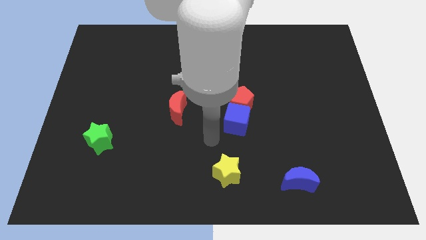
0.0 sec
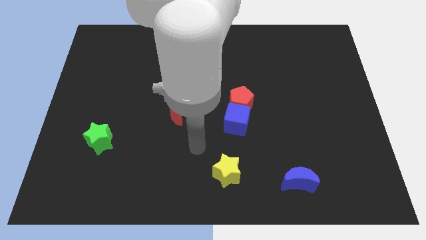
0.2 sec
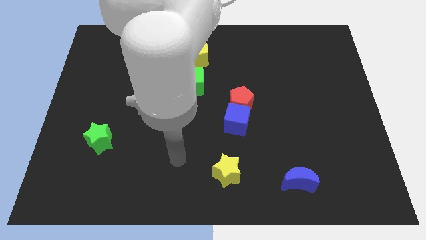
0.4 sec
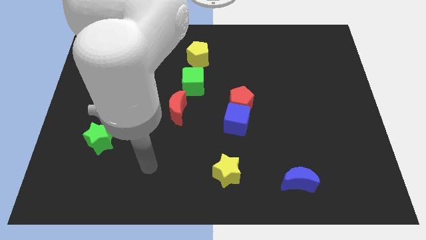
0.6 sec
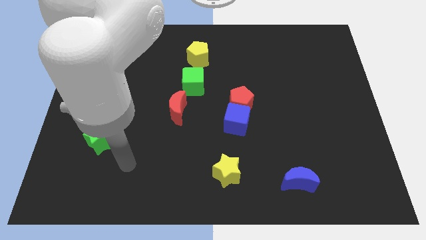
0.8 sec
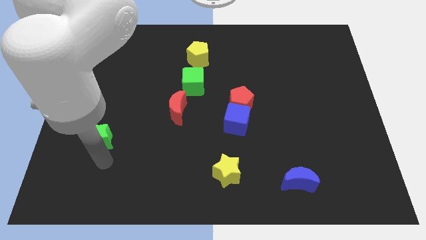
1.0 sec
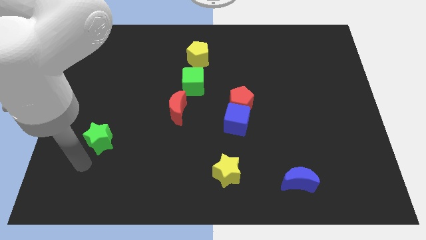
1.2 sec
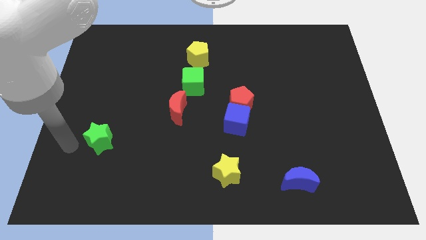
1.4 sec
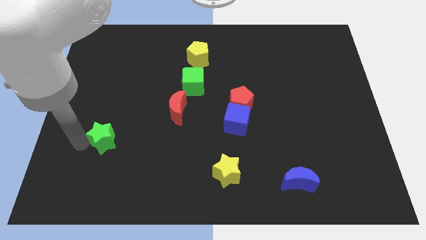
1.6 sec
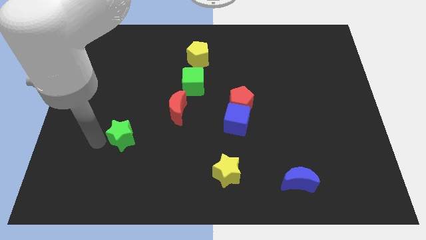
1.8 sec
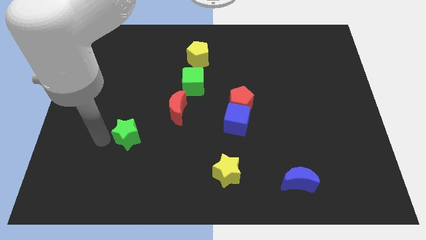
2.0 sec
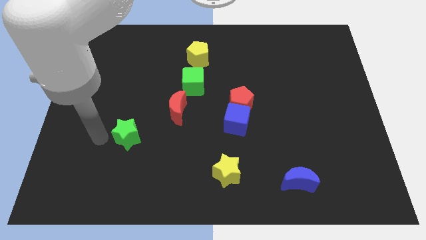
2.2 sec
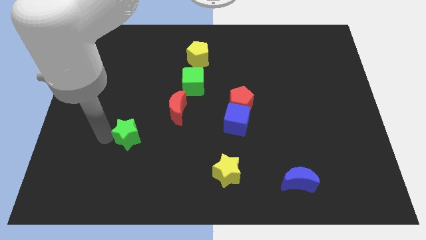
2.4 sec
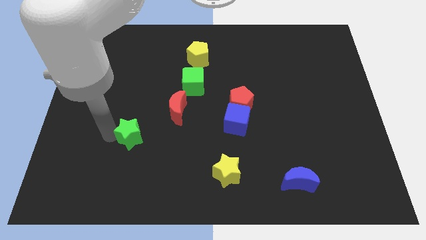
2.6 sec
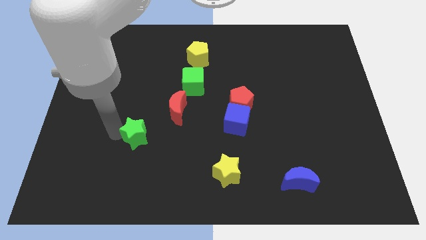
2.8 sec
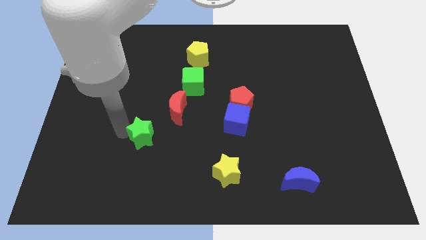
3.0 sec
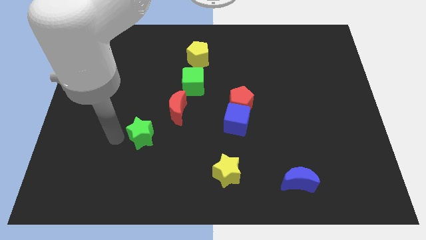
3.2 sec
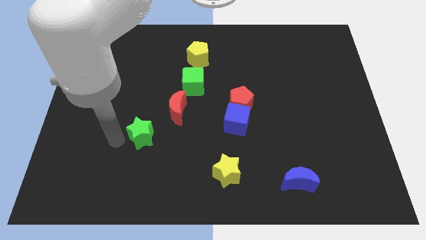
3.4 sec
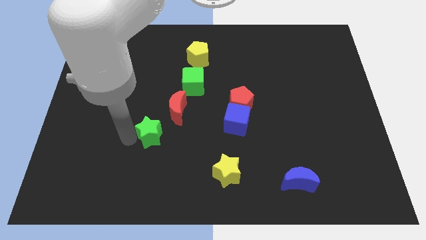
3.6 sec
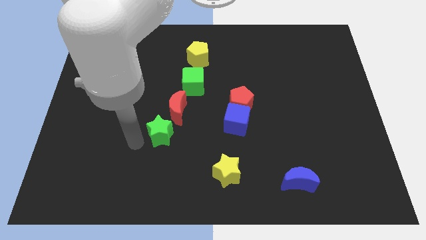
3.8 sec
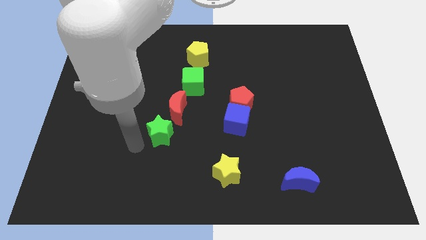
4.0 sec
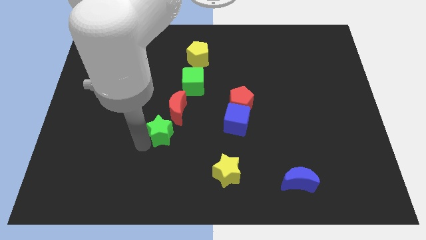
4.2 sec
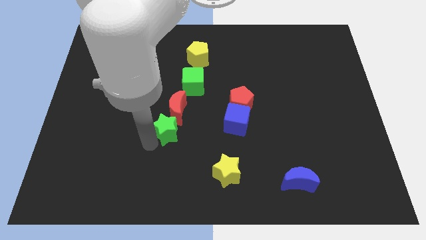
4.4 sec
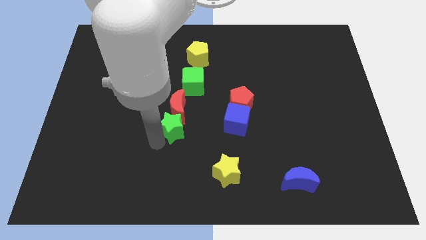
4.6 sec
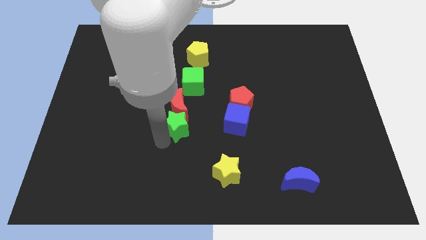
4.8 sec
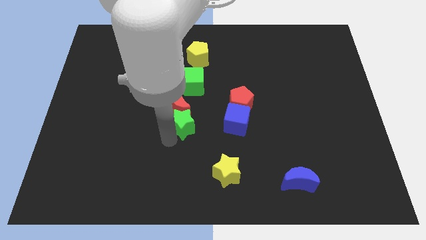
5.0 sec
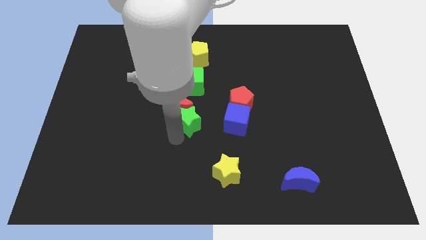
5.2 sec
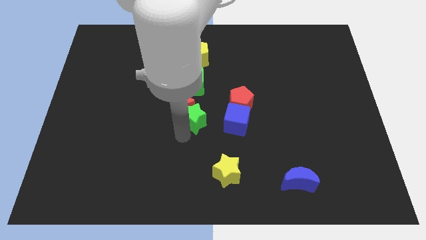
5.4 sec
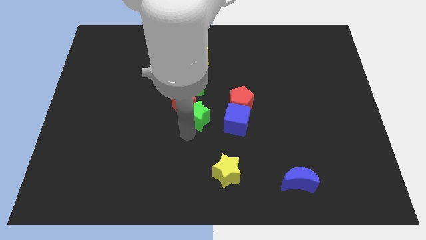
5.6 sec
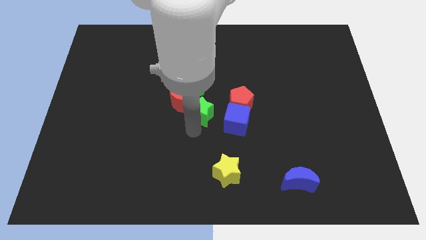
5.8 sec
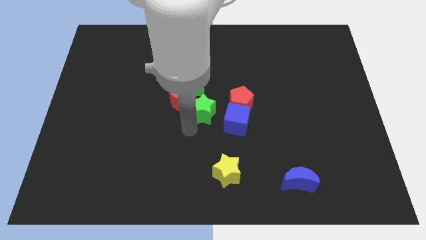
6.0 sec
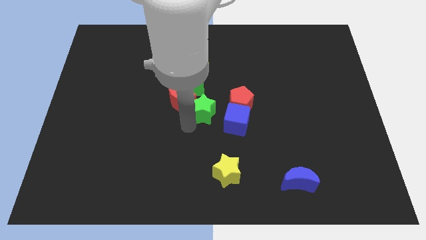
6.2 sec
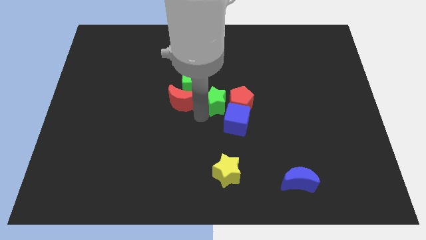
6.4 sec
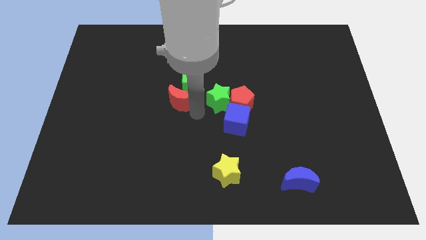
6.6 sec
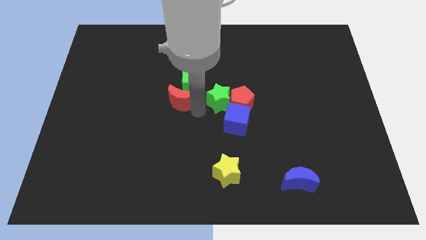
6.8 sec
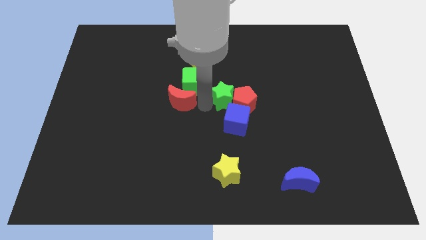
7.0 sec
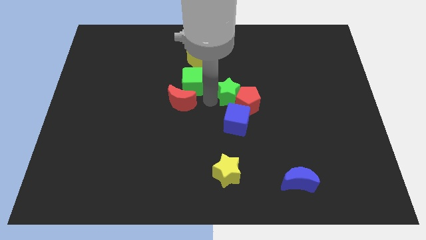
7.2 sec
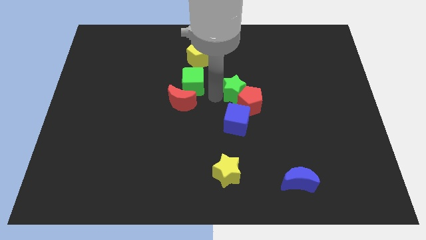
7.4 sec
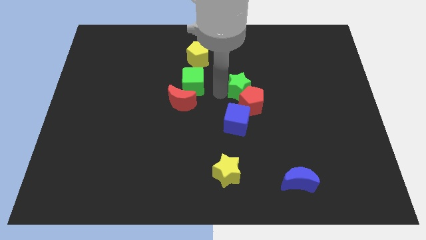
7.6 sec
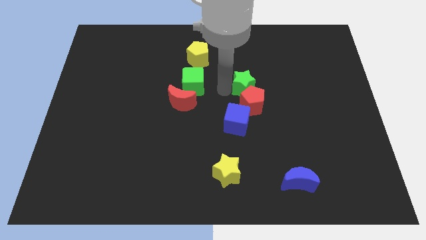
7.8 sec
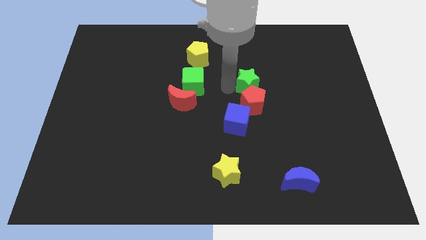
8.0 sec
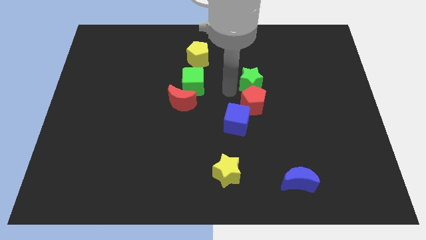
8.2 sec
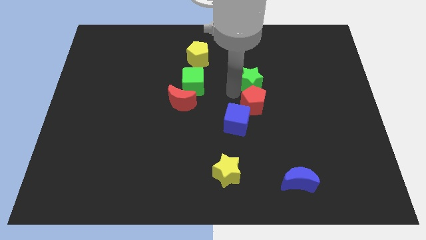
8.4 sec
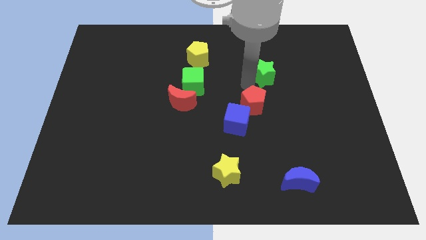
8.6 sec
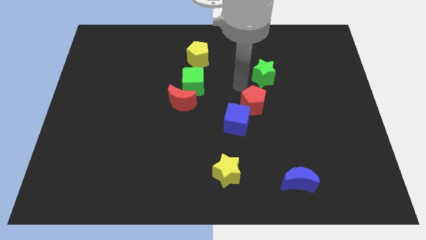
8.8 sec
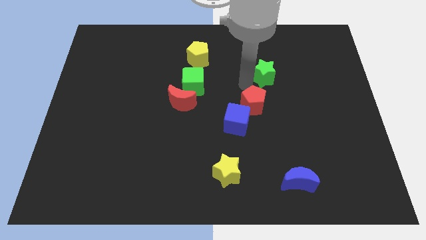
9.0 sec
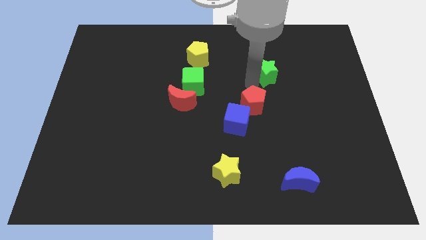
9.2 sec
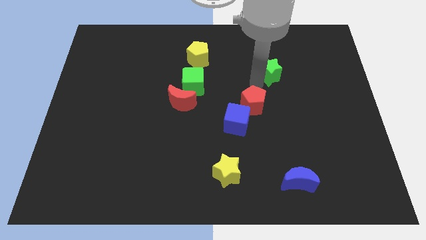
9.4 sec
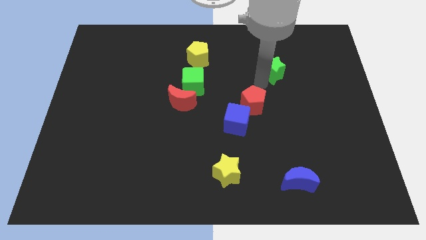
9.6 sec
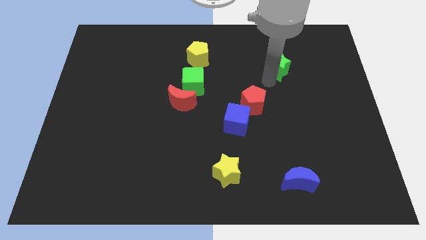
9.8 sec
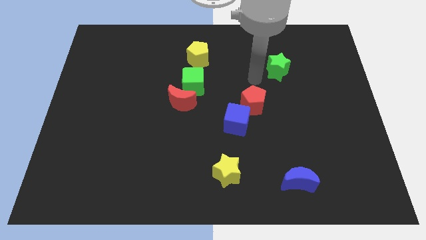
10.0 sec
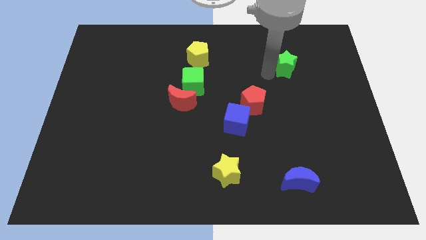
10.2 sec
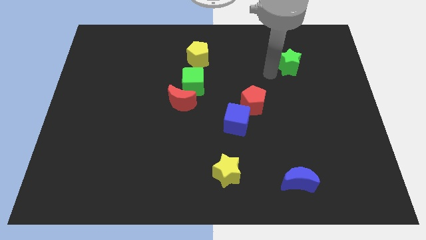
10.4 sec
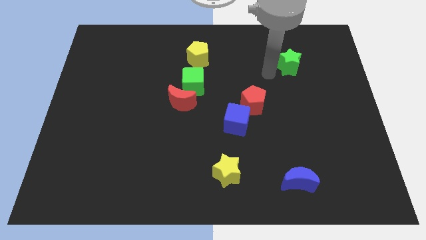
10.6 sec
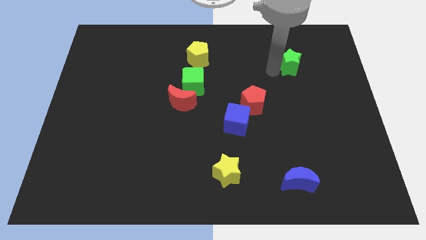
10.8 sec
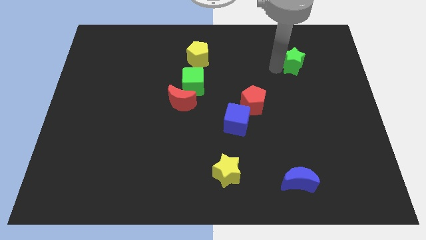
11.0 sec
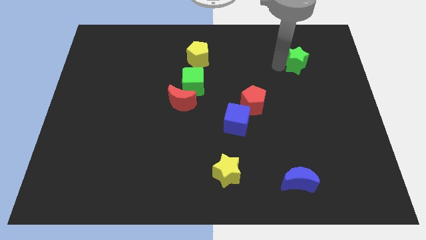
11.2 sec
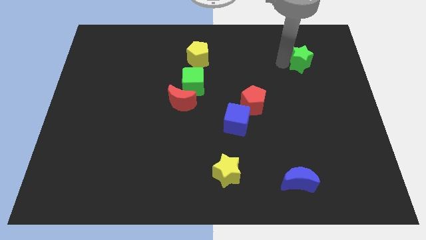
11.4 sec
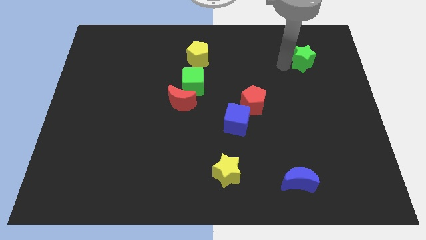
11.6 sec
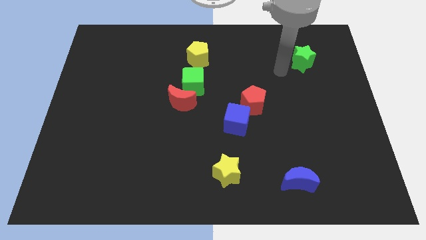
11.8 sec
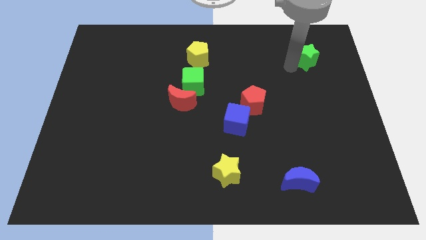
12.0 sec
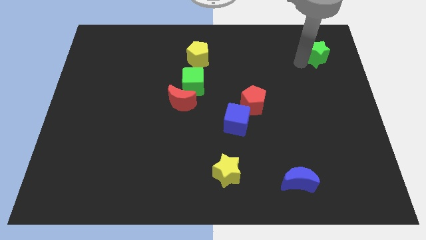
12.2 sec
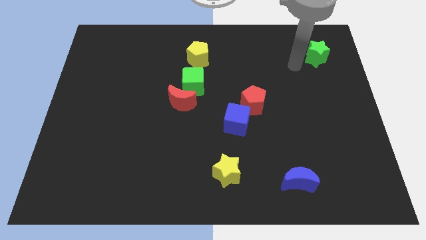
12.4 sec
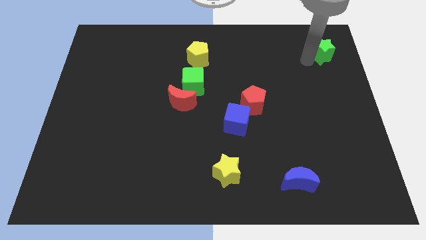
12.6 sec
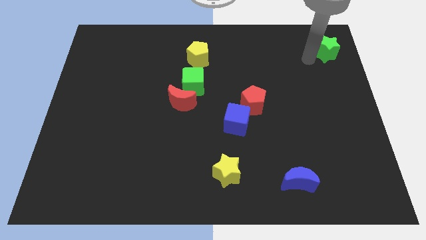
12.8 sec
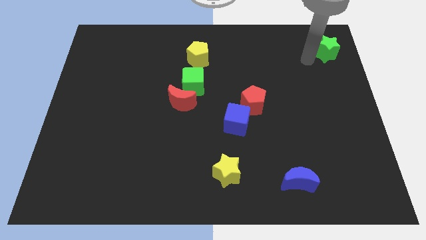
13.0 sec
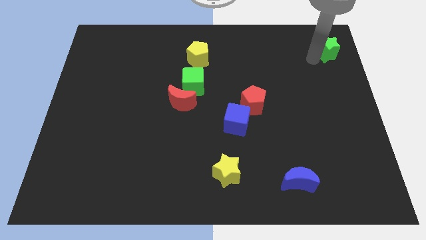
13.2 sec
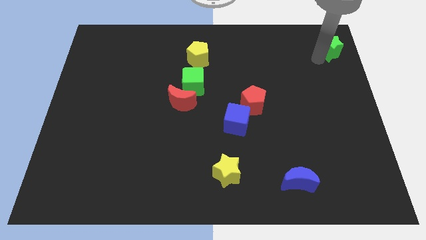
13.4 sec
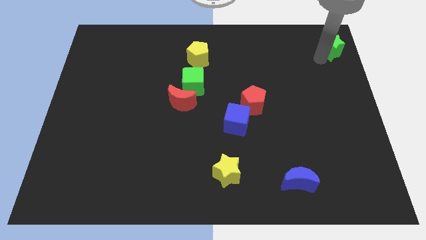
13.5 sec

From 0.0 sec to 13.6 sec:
put the green star to the top right

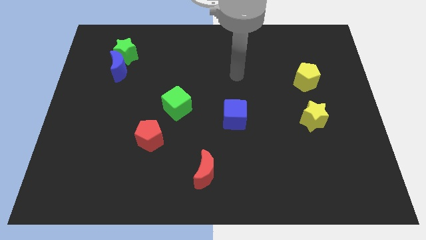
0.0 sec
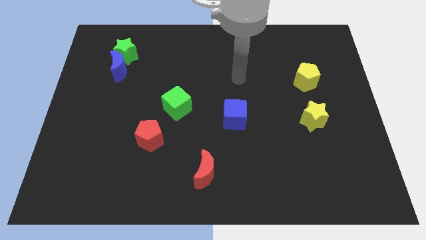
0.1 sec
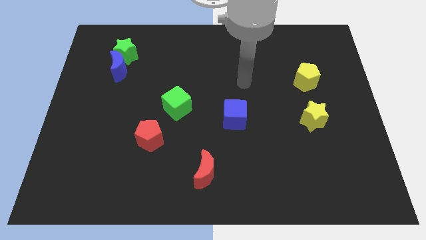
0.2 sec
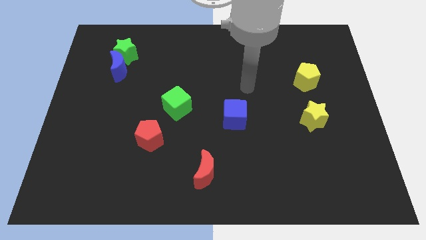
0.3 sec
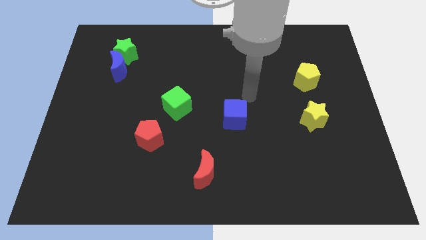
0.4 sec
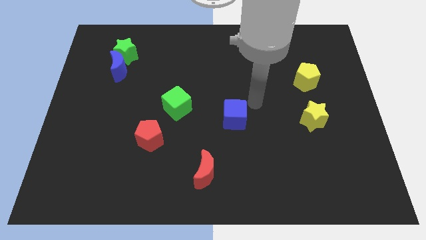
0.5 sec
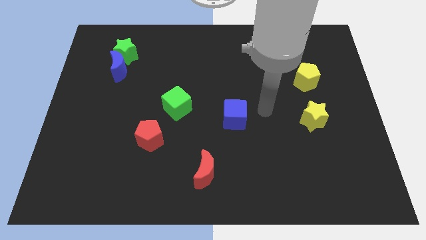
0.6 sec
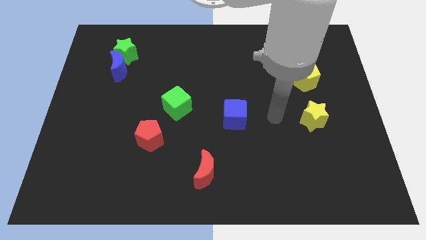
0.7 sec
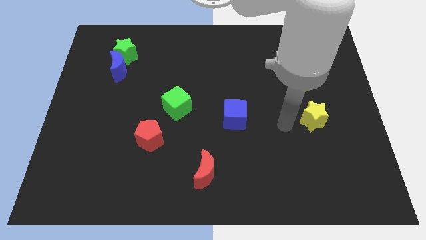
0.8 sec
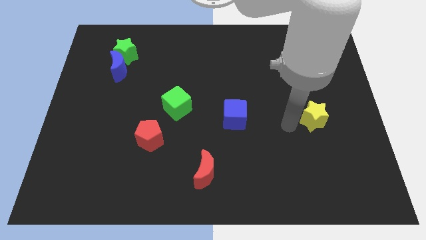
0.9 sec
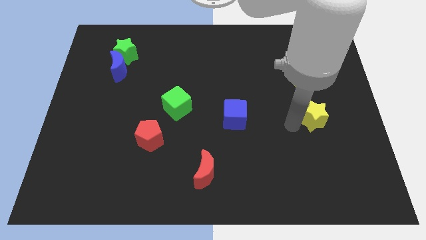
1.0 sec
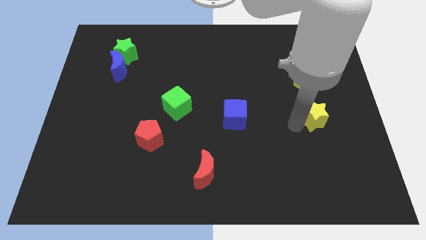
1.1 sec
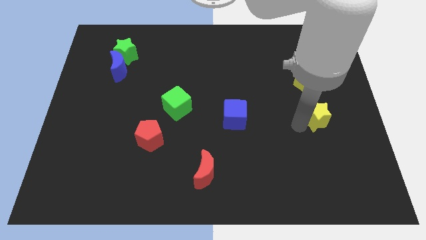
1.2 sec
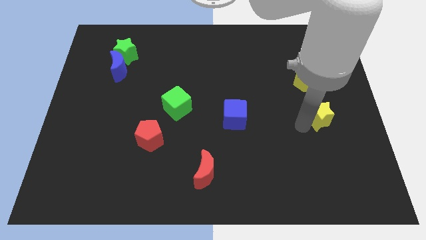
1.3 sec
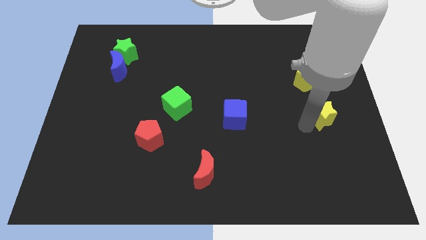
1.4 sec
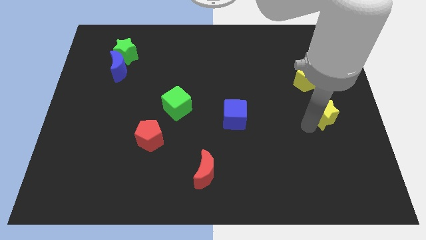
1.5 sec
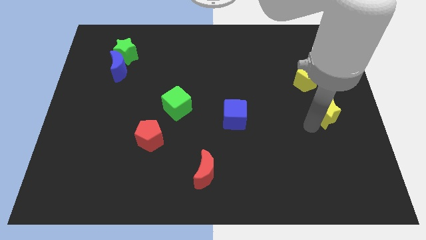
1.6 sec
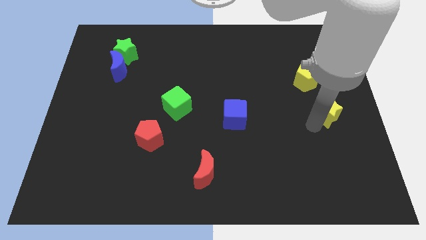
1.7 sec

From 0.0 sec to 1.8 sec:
slide the yellow star to the center right
